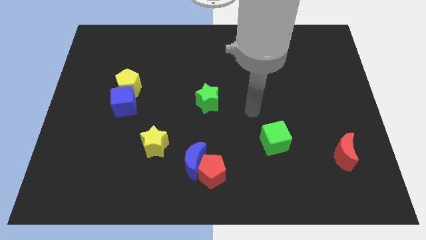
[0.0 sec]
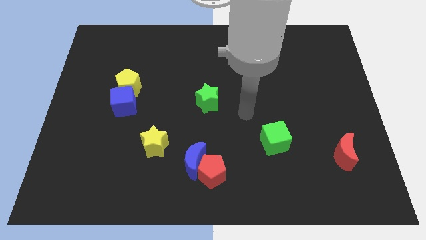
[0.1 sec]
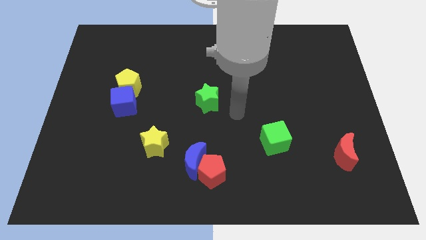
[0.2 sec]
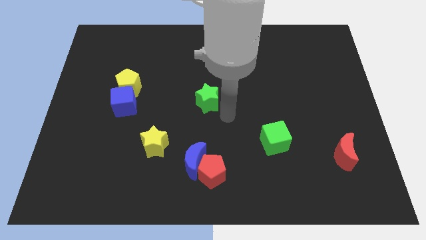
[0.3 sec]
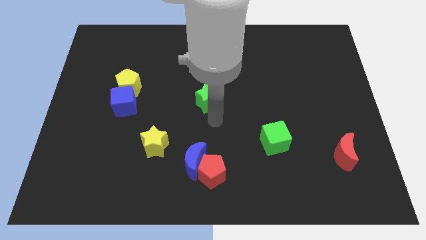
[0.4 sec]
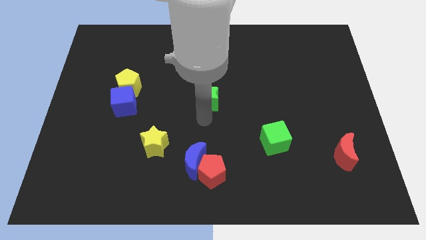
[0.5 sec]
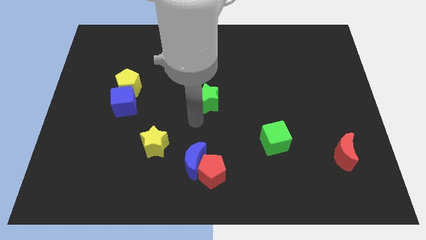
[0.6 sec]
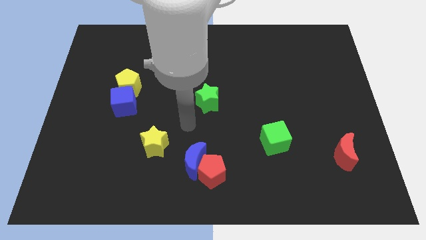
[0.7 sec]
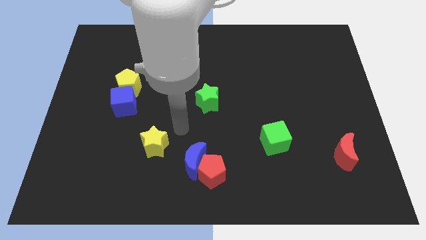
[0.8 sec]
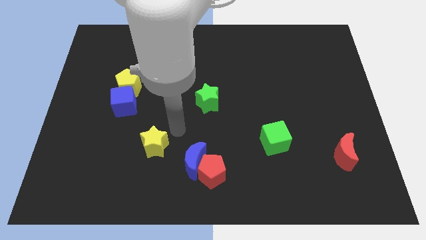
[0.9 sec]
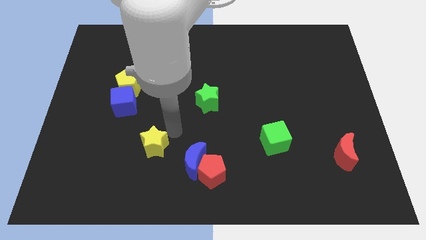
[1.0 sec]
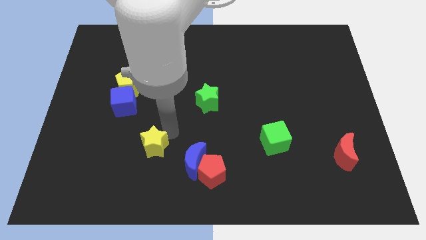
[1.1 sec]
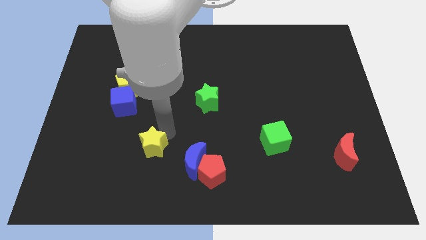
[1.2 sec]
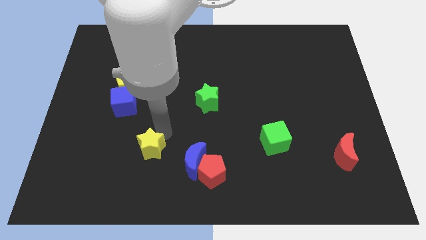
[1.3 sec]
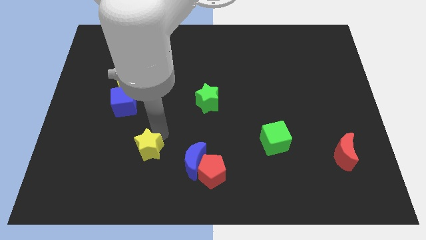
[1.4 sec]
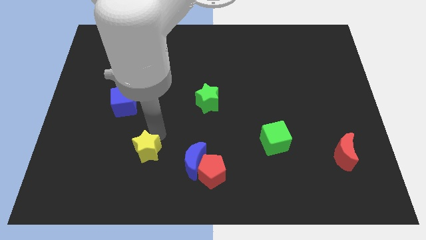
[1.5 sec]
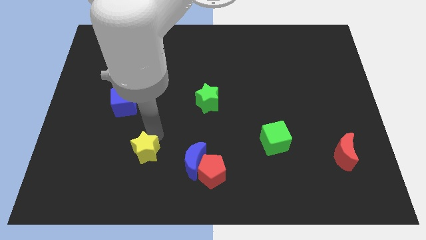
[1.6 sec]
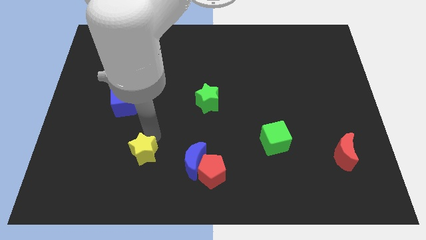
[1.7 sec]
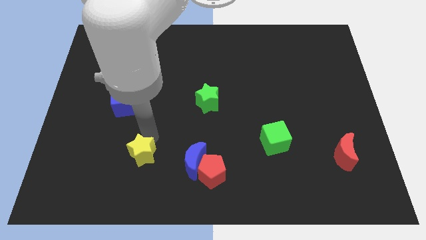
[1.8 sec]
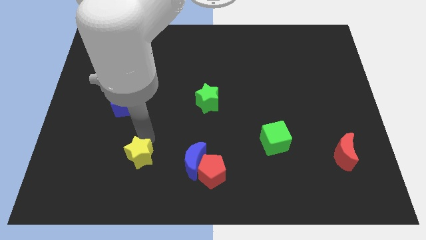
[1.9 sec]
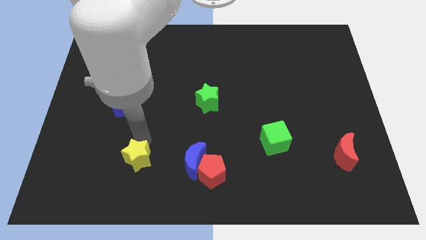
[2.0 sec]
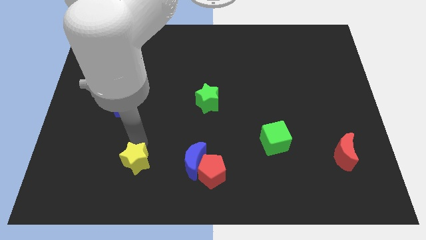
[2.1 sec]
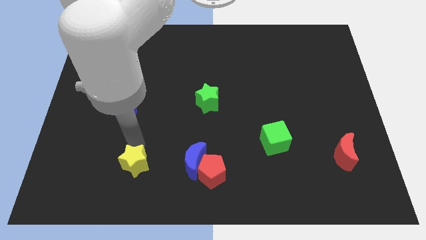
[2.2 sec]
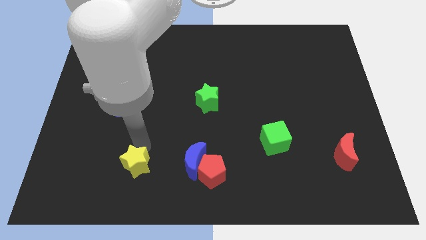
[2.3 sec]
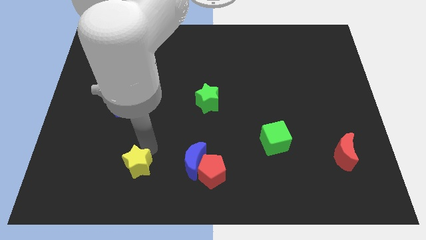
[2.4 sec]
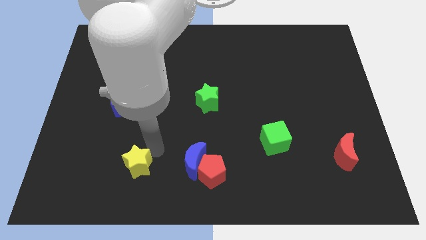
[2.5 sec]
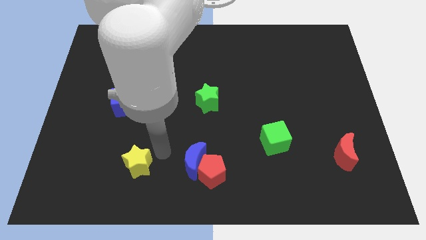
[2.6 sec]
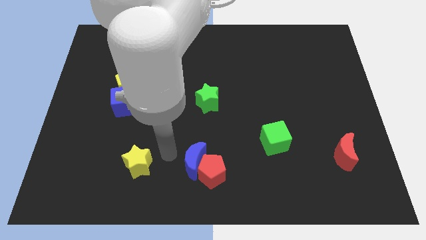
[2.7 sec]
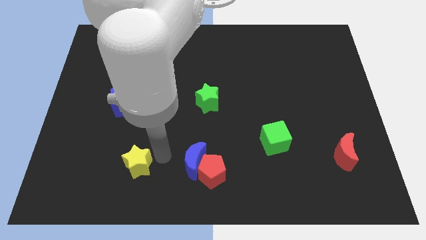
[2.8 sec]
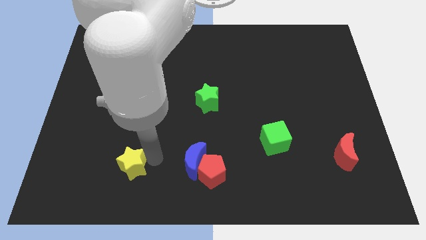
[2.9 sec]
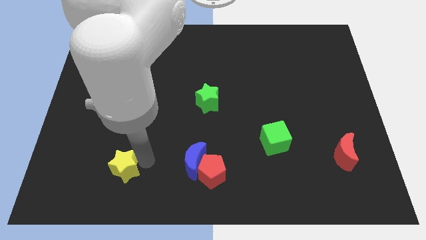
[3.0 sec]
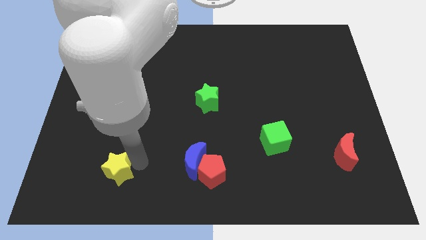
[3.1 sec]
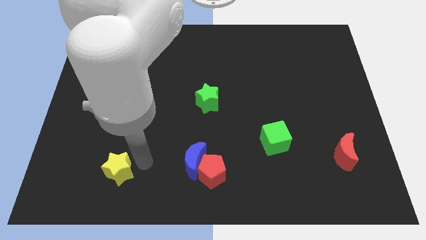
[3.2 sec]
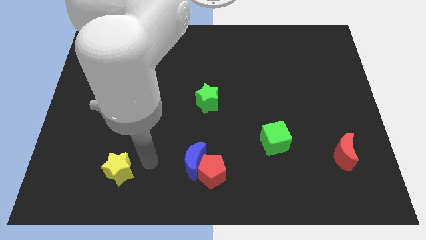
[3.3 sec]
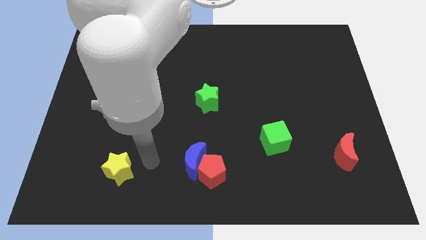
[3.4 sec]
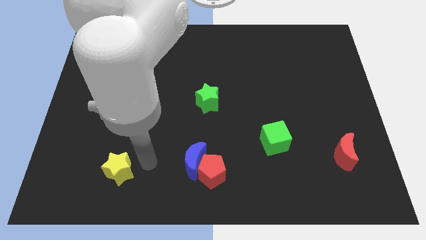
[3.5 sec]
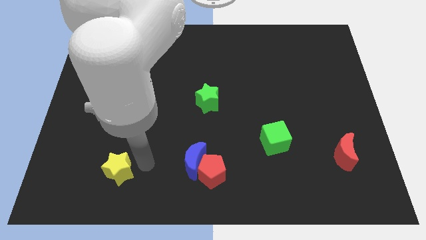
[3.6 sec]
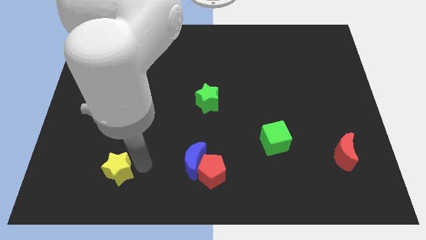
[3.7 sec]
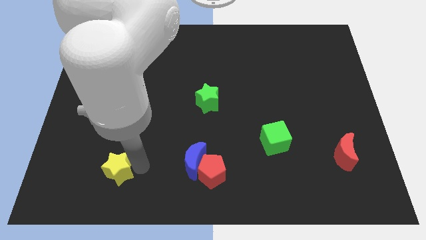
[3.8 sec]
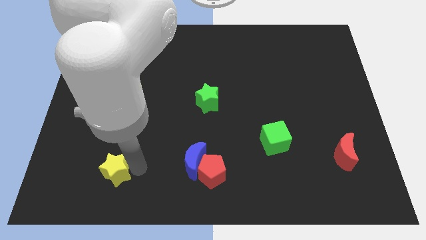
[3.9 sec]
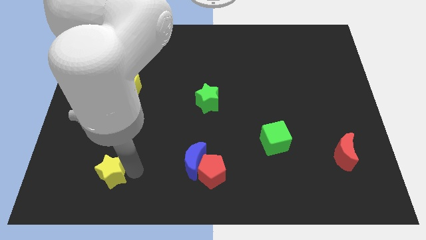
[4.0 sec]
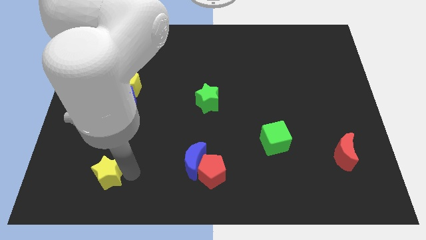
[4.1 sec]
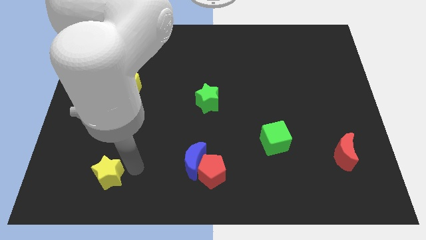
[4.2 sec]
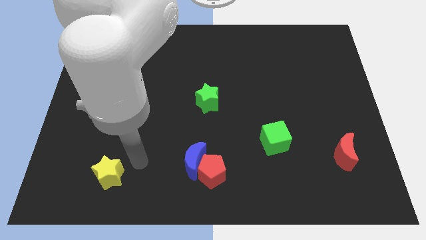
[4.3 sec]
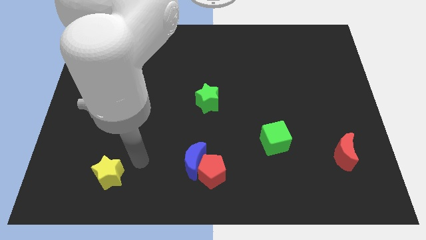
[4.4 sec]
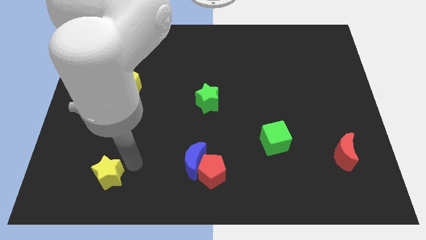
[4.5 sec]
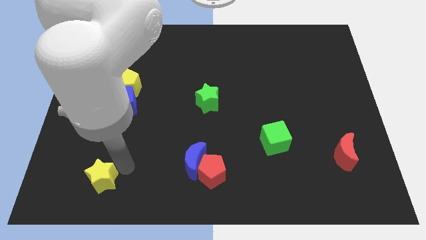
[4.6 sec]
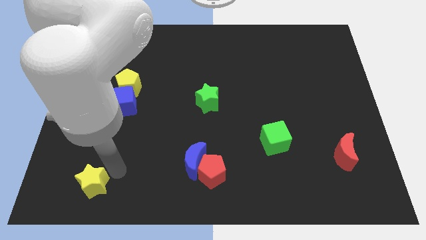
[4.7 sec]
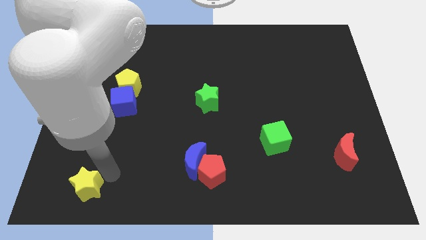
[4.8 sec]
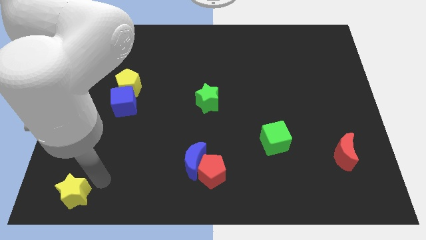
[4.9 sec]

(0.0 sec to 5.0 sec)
put the yellow star to the bottom left of the board

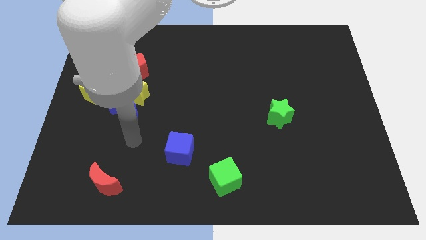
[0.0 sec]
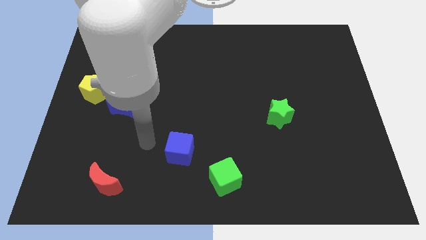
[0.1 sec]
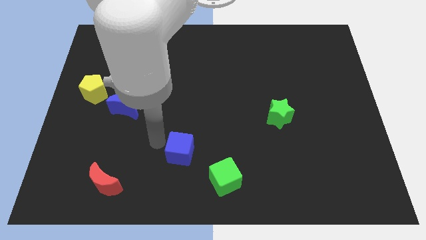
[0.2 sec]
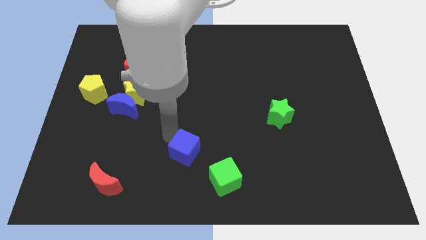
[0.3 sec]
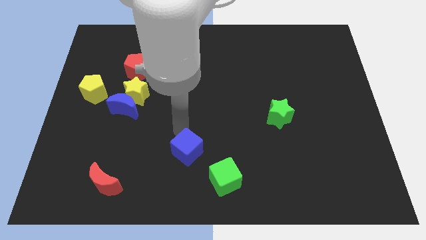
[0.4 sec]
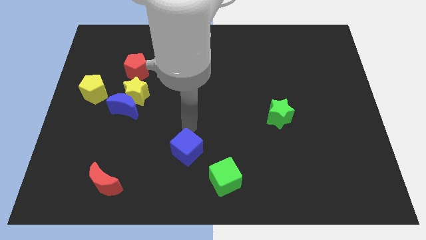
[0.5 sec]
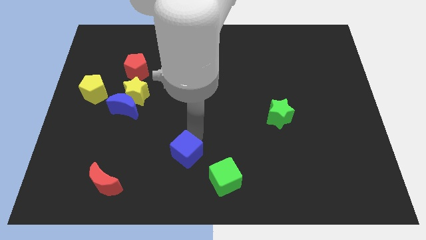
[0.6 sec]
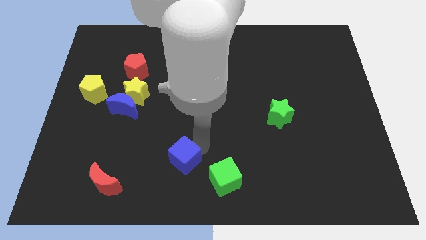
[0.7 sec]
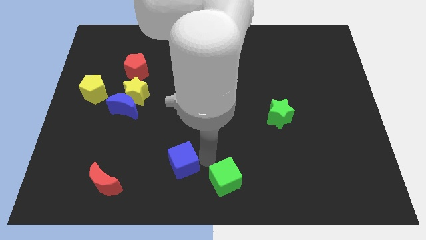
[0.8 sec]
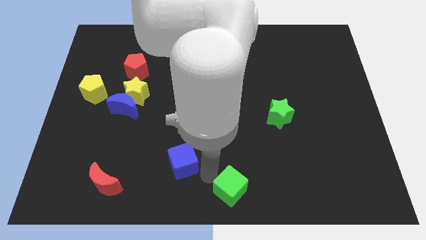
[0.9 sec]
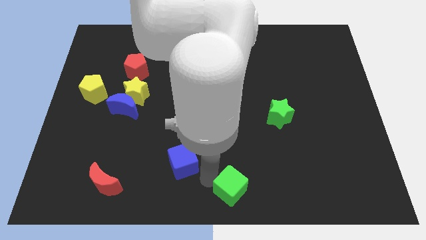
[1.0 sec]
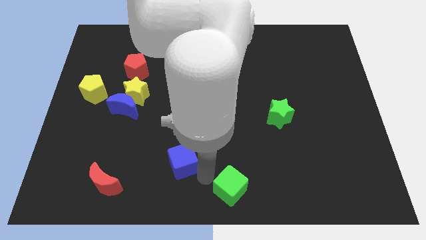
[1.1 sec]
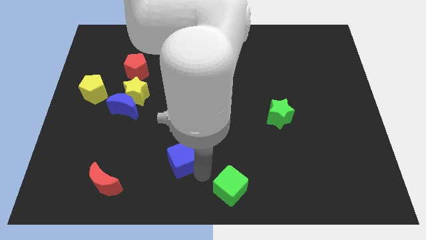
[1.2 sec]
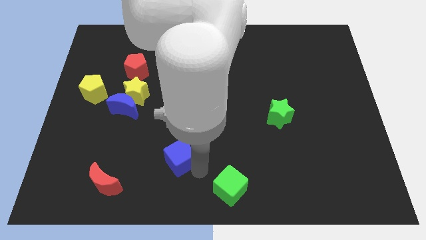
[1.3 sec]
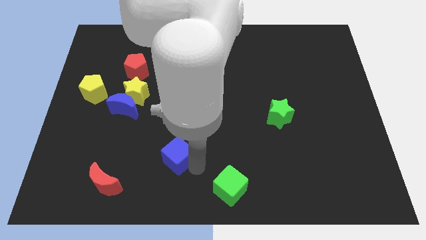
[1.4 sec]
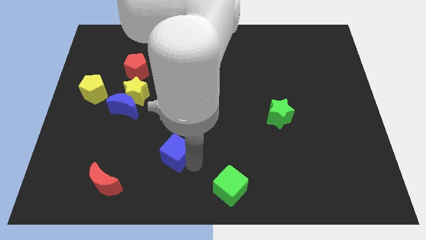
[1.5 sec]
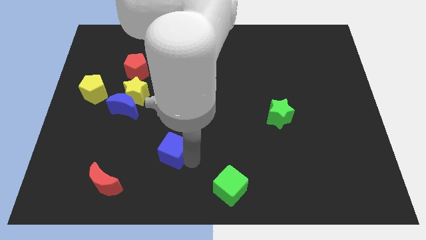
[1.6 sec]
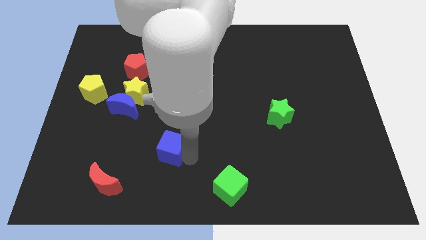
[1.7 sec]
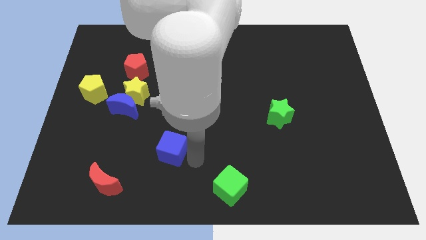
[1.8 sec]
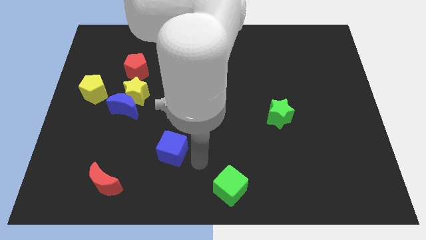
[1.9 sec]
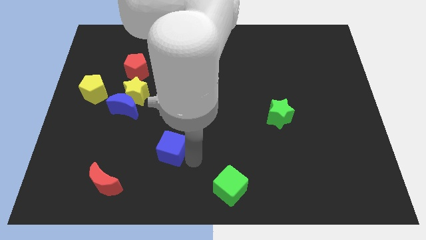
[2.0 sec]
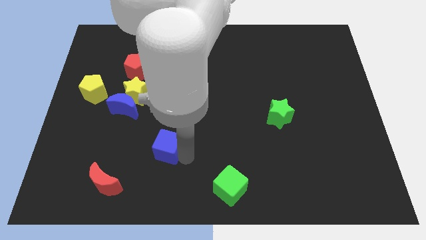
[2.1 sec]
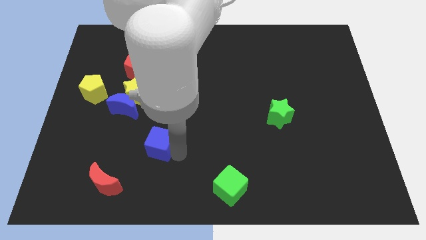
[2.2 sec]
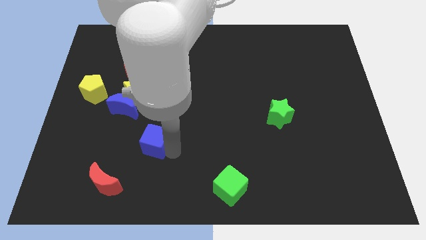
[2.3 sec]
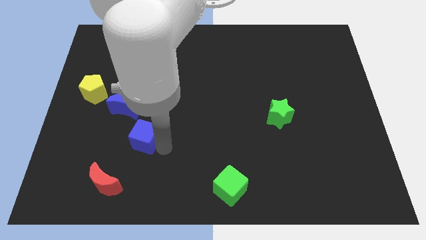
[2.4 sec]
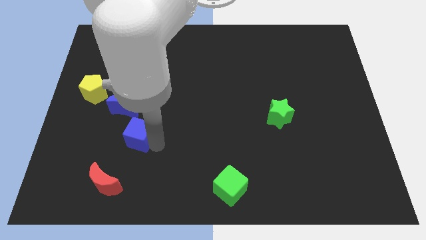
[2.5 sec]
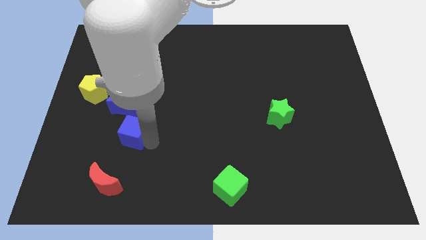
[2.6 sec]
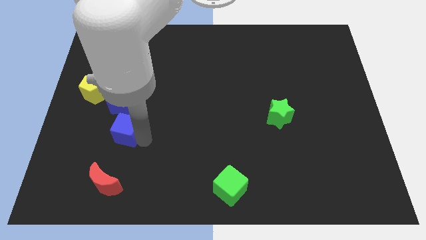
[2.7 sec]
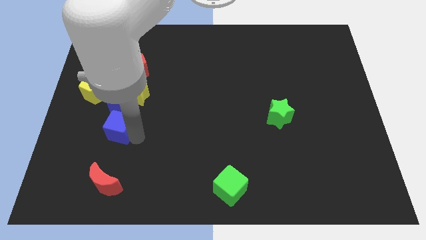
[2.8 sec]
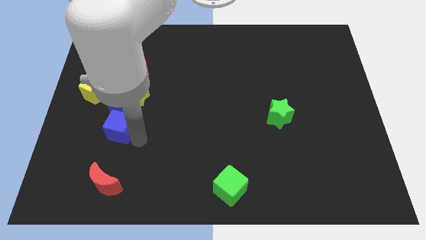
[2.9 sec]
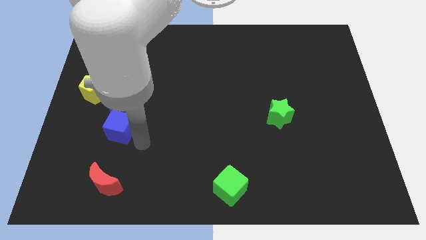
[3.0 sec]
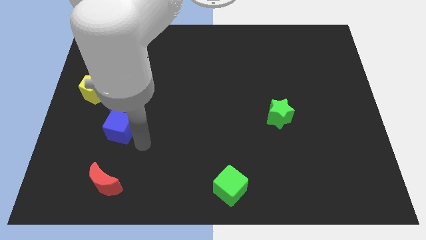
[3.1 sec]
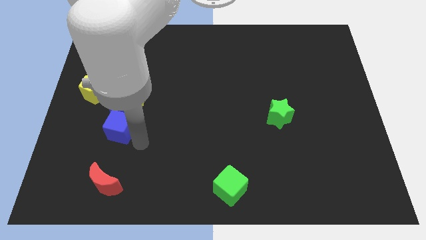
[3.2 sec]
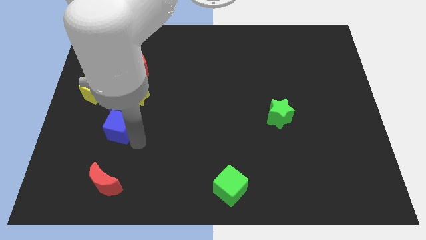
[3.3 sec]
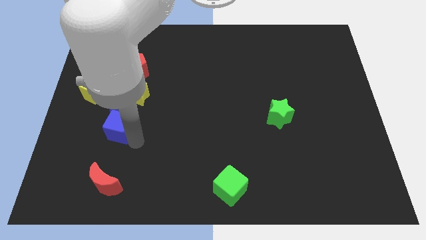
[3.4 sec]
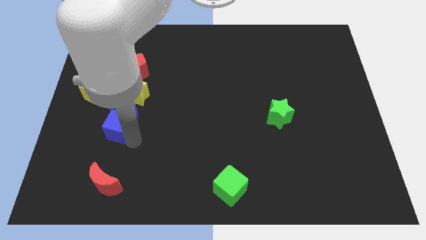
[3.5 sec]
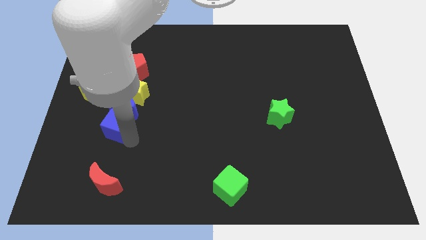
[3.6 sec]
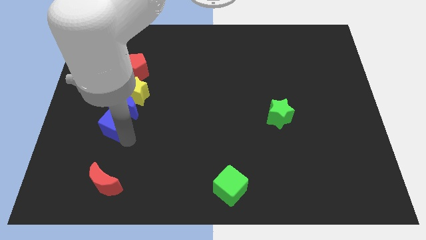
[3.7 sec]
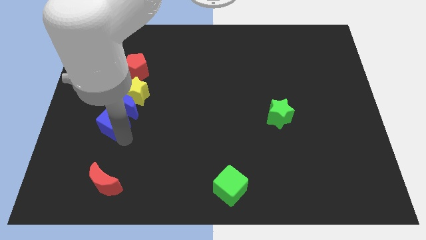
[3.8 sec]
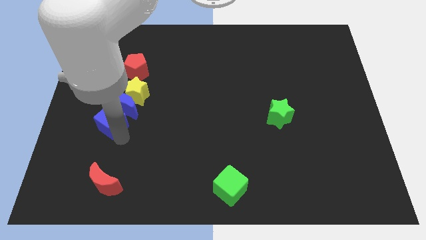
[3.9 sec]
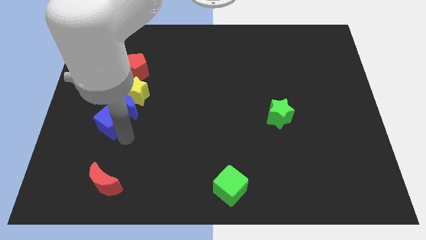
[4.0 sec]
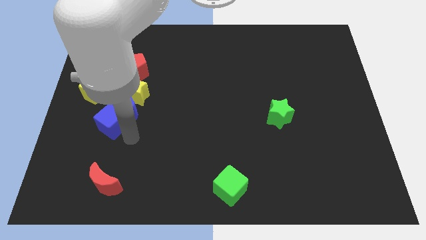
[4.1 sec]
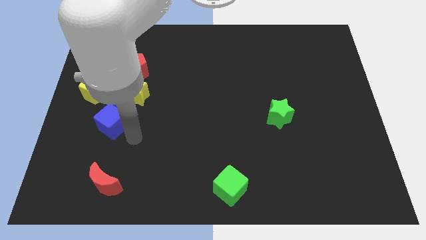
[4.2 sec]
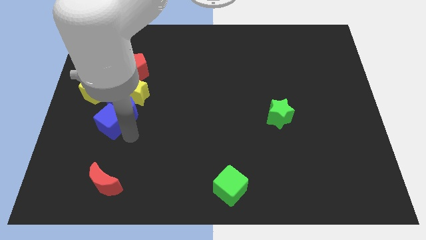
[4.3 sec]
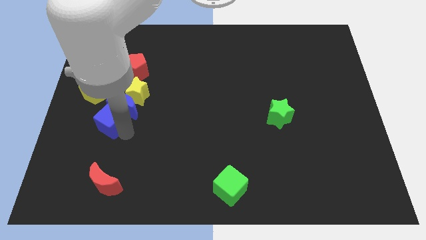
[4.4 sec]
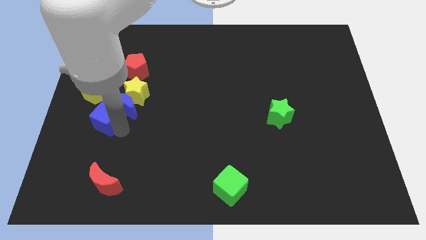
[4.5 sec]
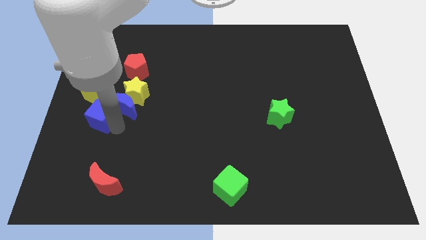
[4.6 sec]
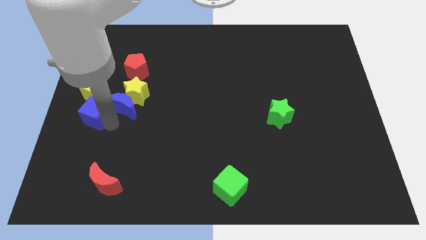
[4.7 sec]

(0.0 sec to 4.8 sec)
push the blue cube to the center left
